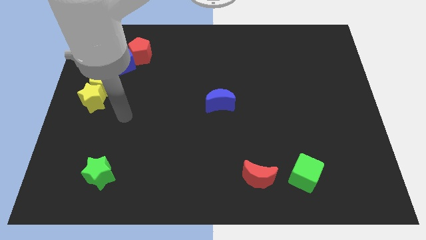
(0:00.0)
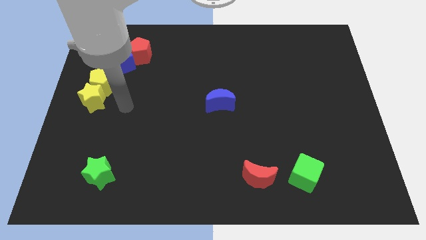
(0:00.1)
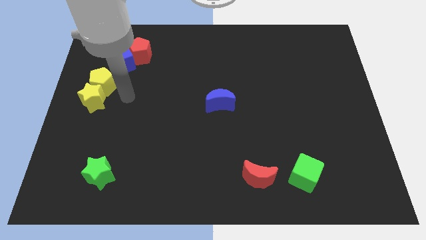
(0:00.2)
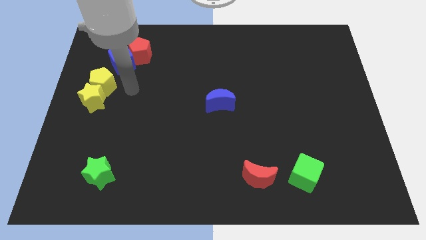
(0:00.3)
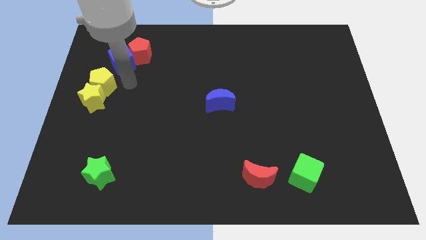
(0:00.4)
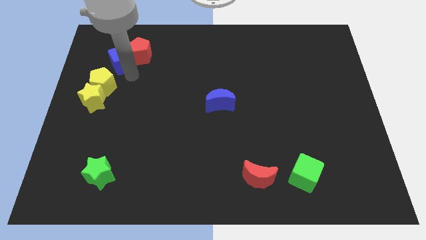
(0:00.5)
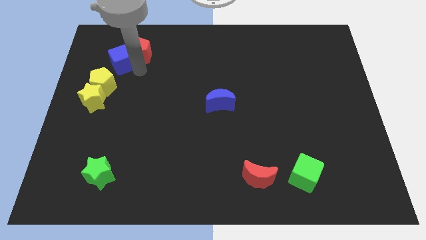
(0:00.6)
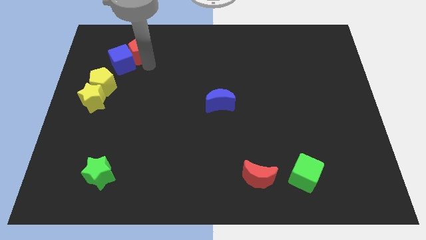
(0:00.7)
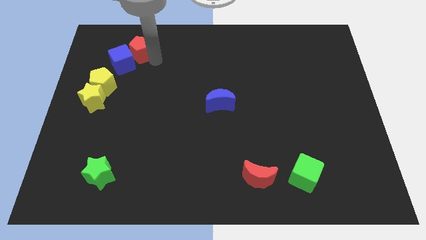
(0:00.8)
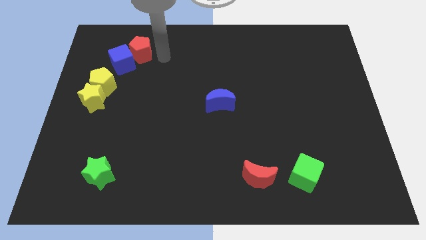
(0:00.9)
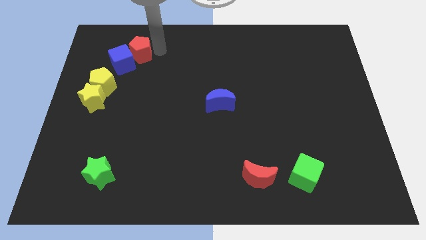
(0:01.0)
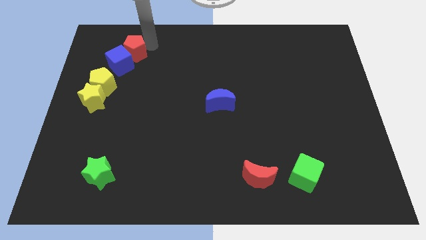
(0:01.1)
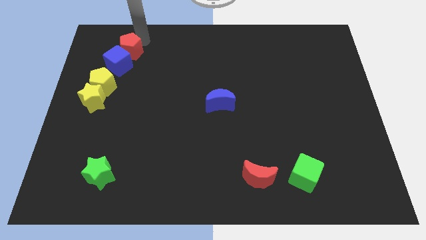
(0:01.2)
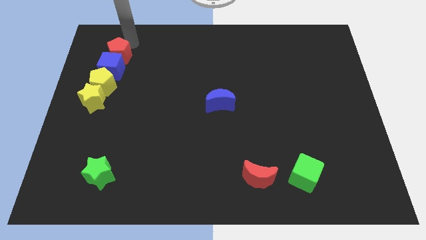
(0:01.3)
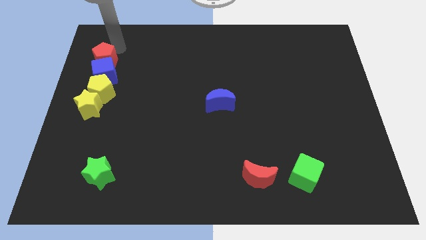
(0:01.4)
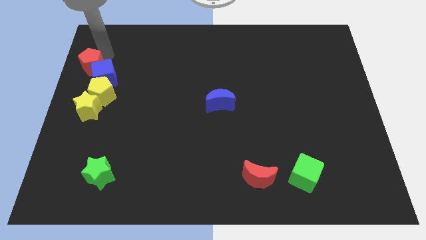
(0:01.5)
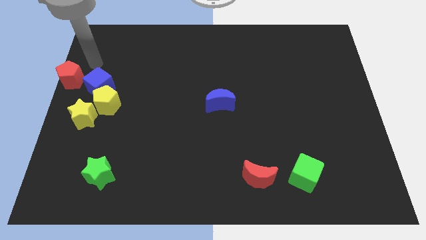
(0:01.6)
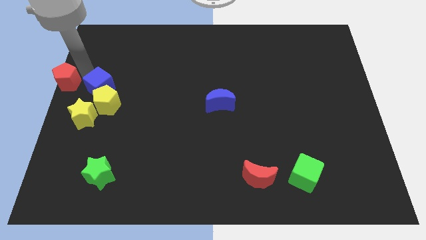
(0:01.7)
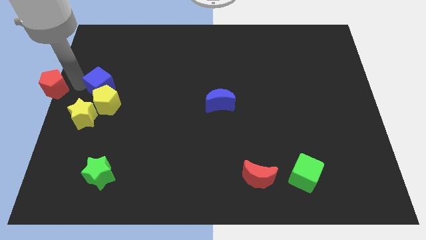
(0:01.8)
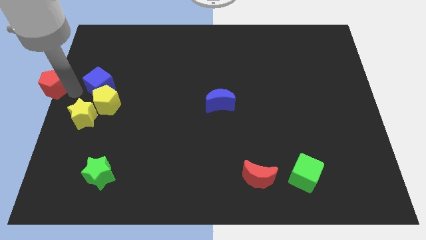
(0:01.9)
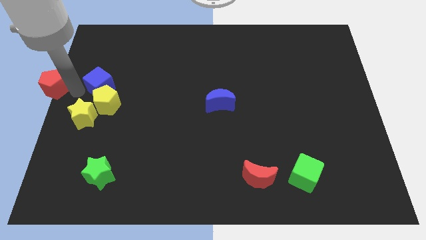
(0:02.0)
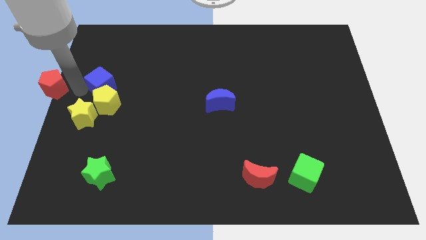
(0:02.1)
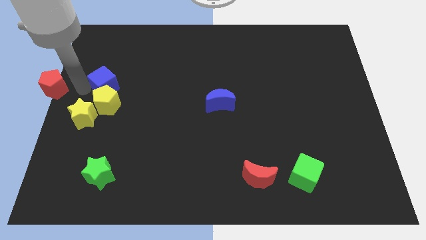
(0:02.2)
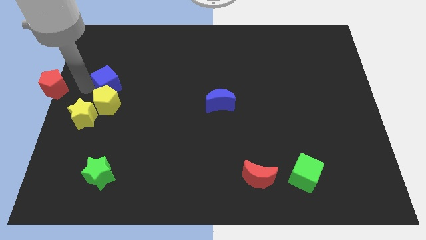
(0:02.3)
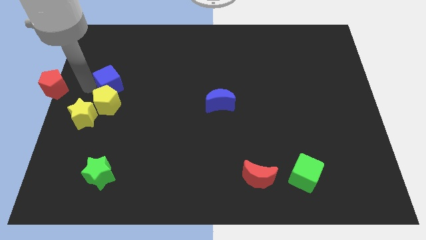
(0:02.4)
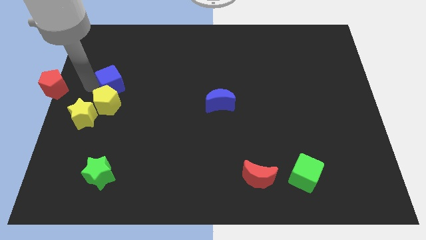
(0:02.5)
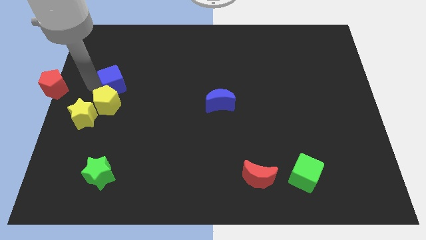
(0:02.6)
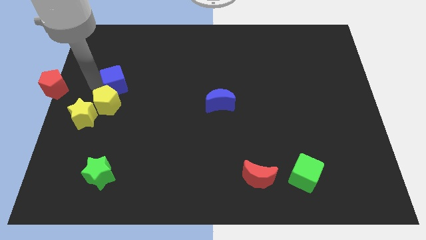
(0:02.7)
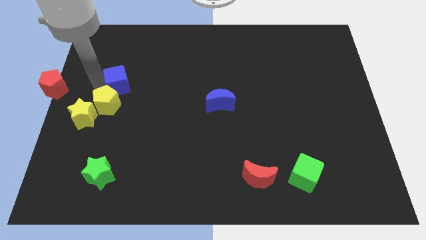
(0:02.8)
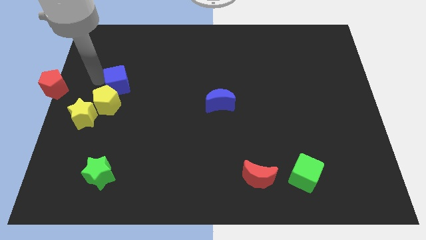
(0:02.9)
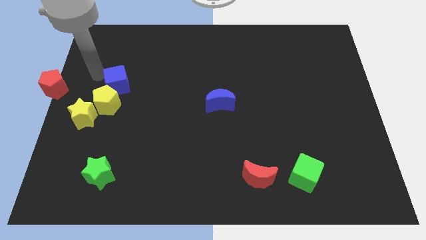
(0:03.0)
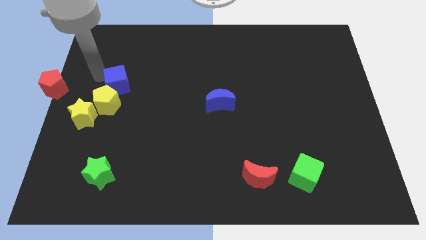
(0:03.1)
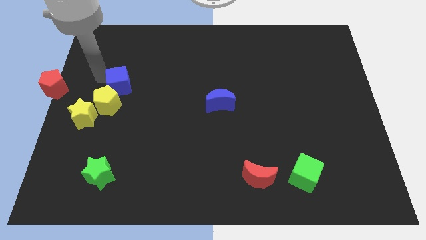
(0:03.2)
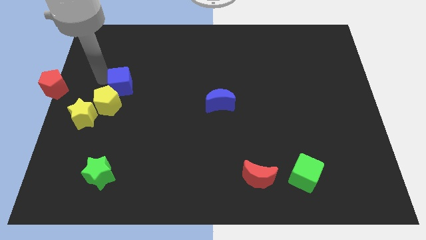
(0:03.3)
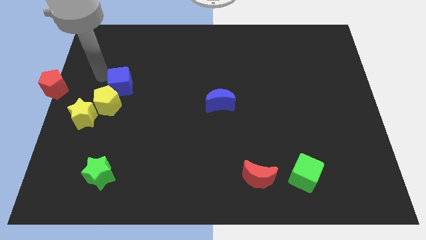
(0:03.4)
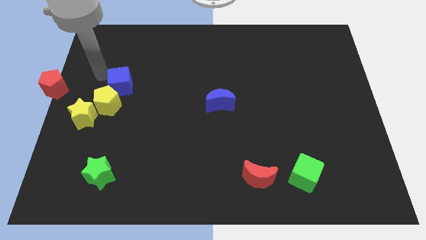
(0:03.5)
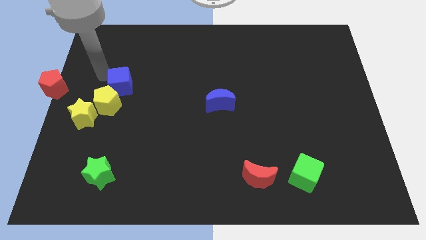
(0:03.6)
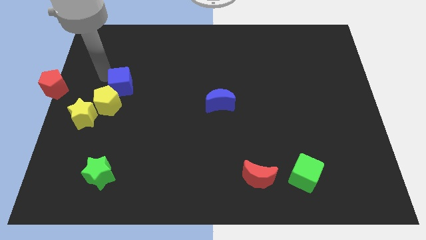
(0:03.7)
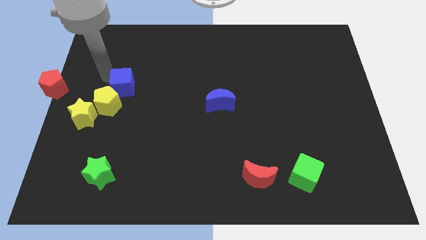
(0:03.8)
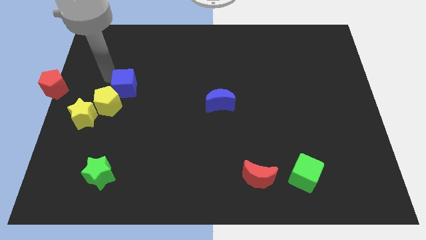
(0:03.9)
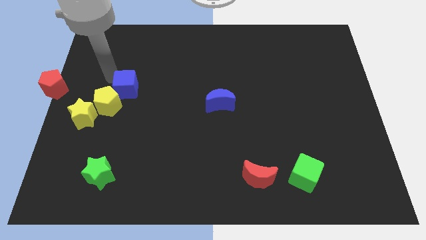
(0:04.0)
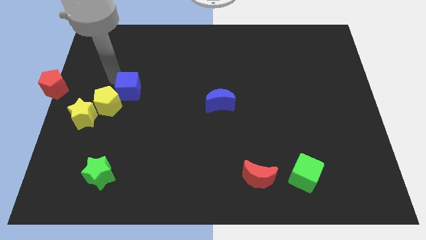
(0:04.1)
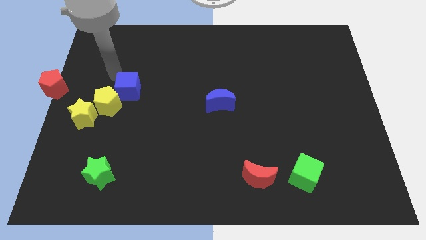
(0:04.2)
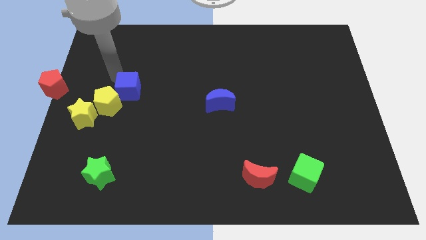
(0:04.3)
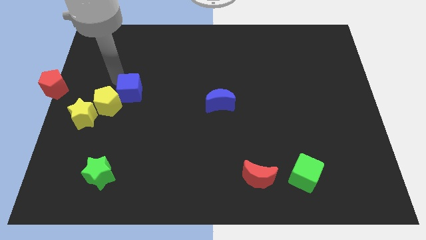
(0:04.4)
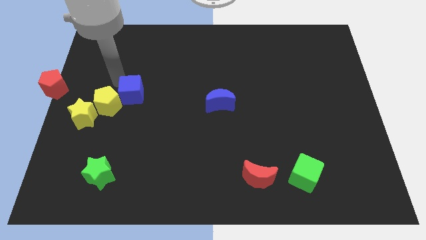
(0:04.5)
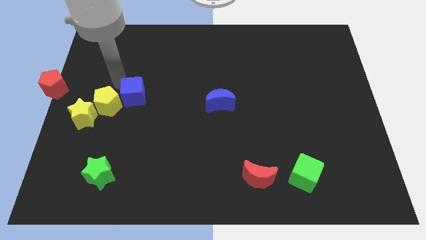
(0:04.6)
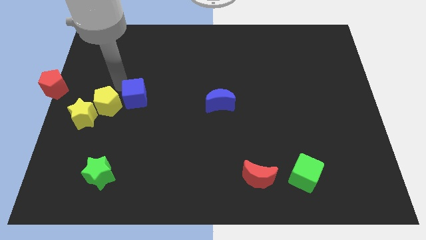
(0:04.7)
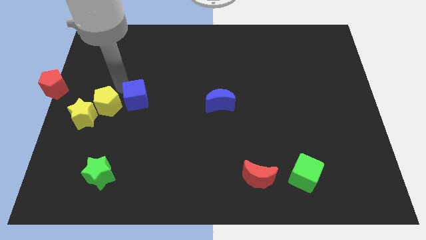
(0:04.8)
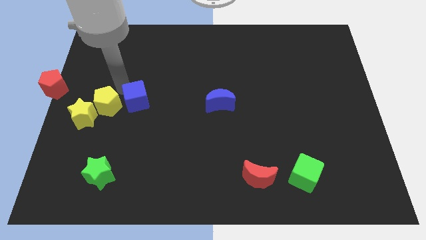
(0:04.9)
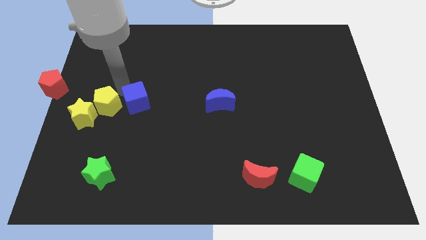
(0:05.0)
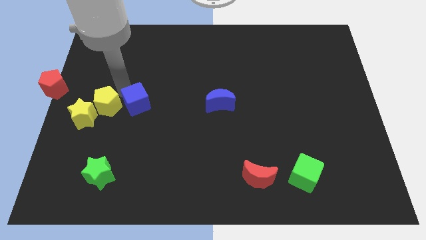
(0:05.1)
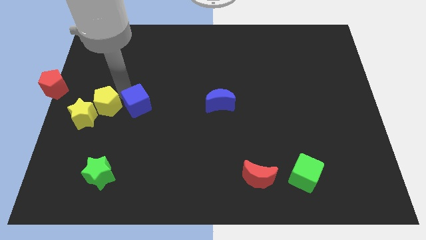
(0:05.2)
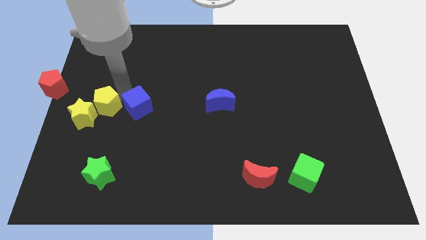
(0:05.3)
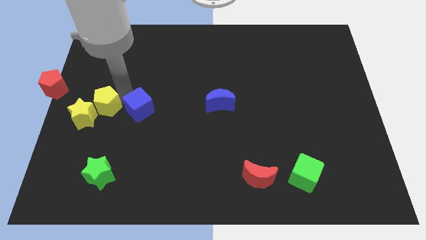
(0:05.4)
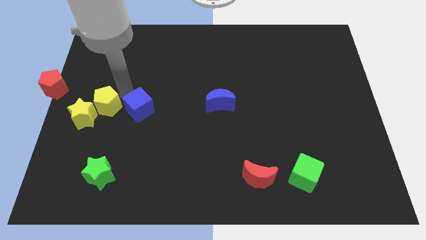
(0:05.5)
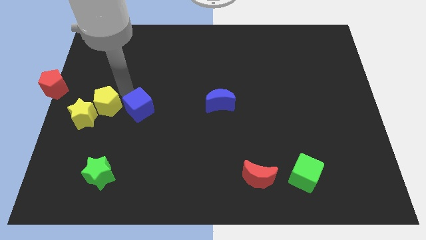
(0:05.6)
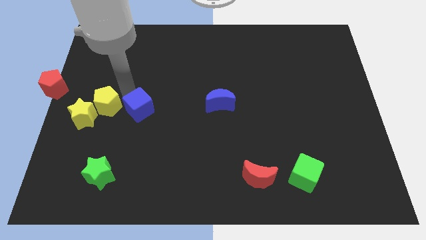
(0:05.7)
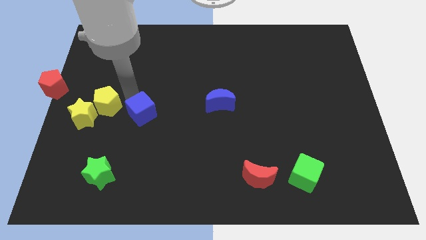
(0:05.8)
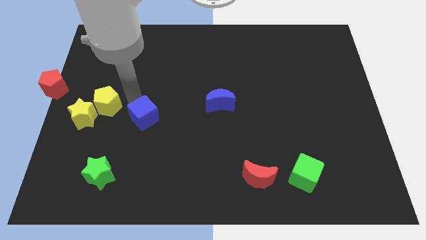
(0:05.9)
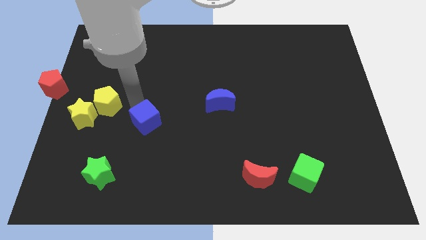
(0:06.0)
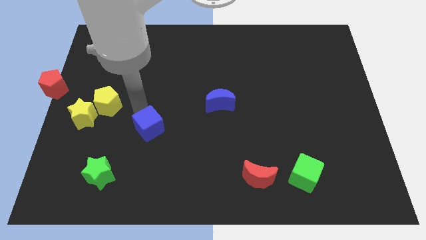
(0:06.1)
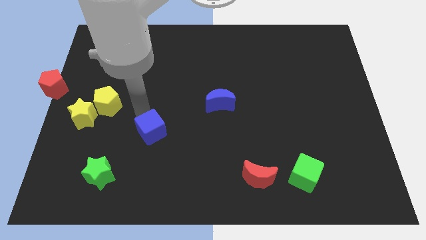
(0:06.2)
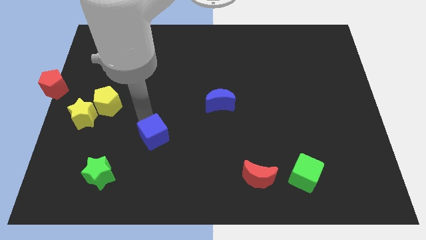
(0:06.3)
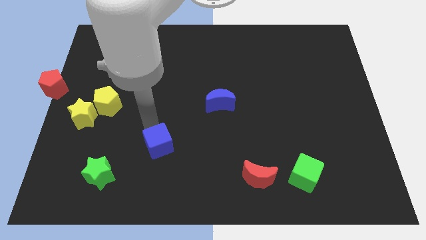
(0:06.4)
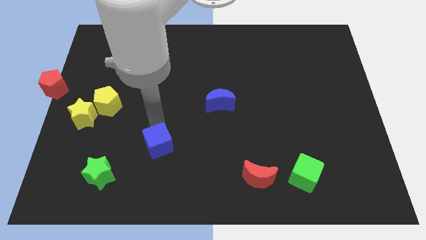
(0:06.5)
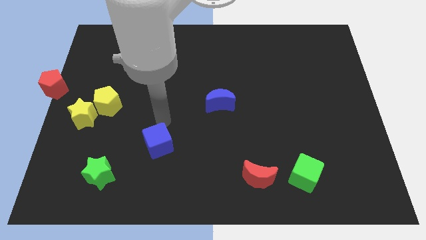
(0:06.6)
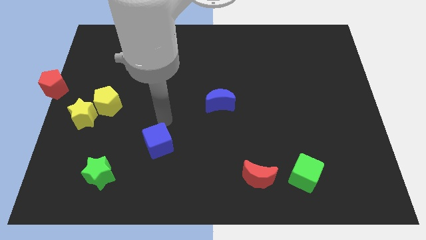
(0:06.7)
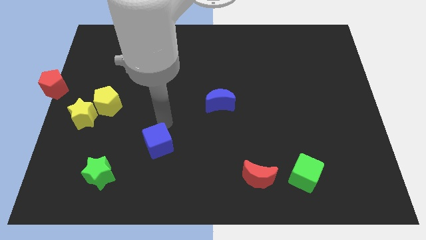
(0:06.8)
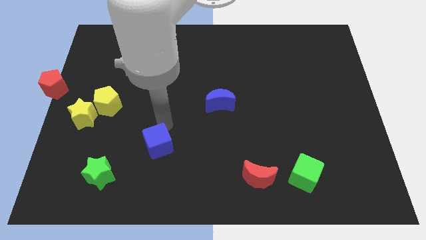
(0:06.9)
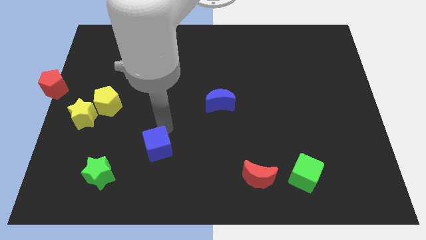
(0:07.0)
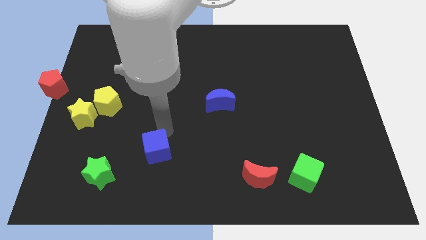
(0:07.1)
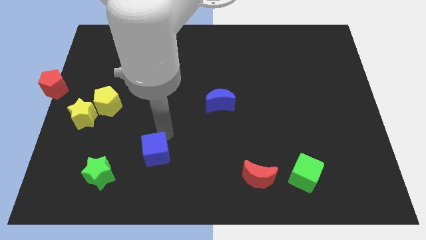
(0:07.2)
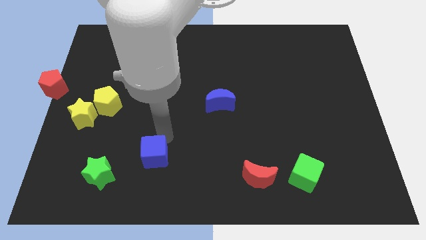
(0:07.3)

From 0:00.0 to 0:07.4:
push the blue cube right of the green star

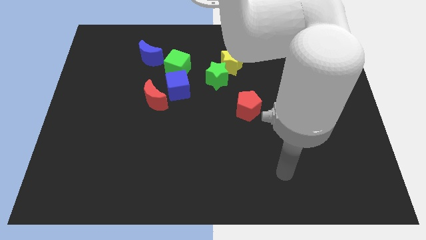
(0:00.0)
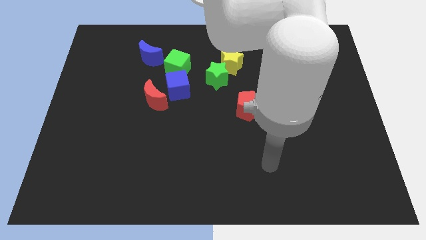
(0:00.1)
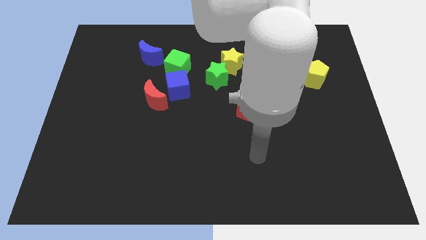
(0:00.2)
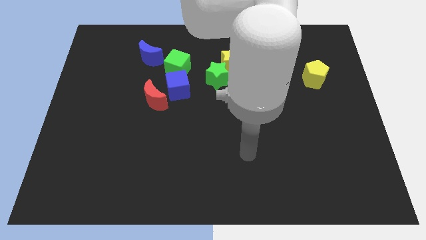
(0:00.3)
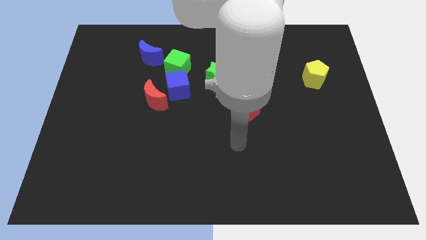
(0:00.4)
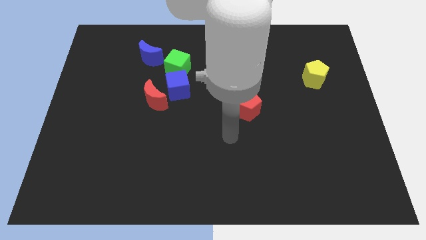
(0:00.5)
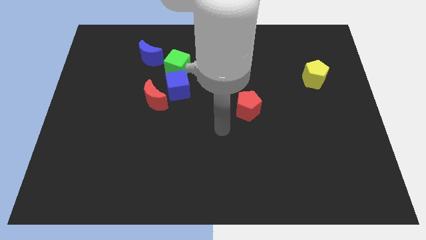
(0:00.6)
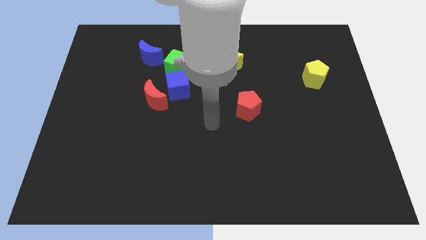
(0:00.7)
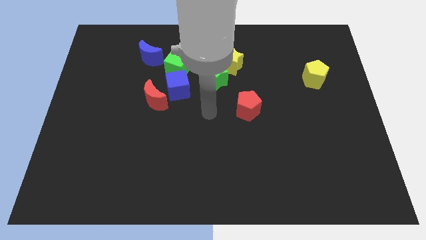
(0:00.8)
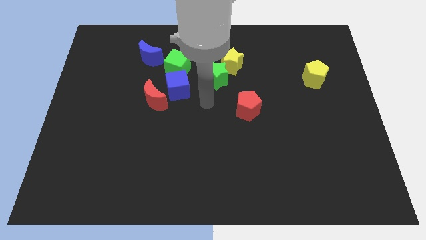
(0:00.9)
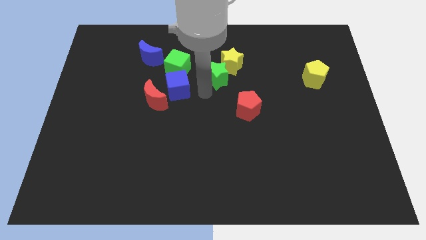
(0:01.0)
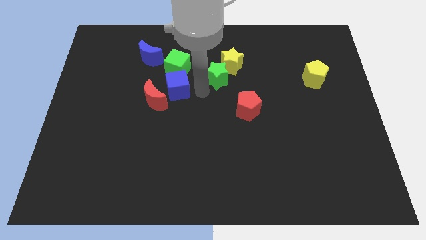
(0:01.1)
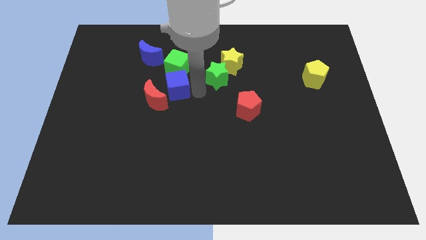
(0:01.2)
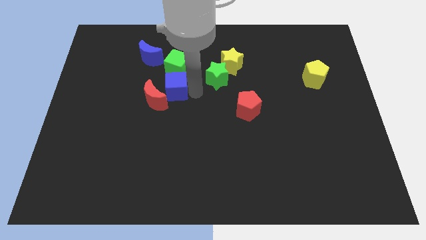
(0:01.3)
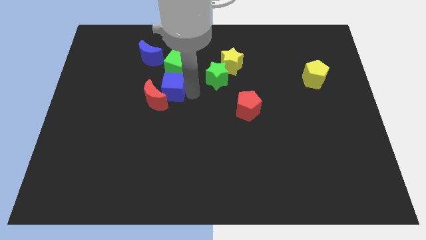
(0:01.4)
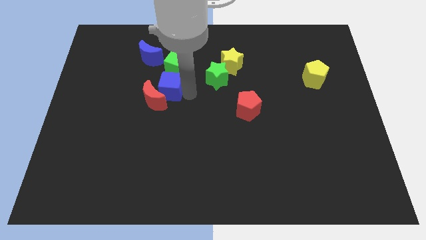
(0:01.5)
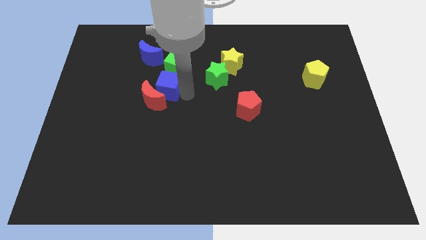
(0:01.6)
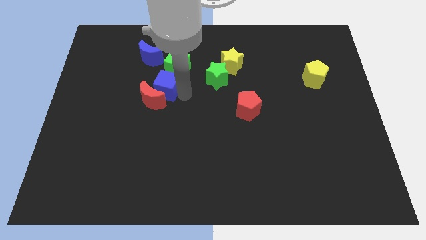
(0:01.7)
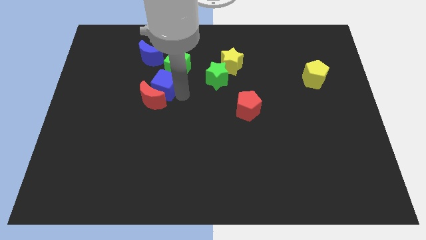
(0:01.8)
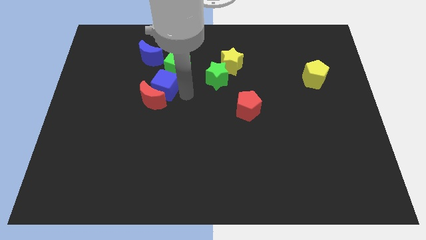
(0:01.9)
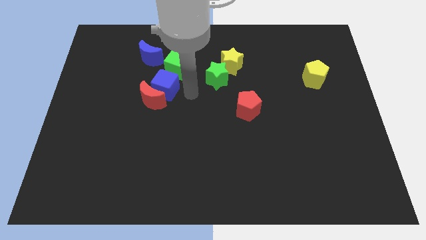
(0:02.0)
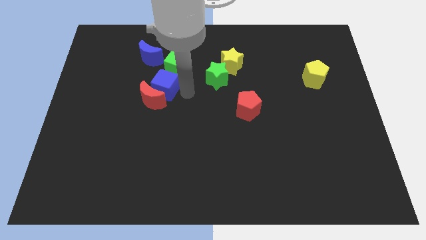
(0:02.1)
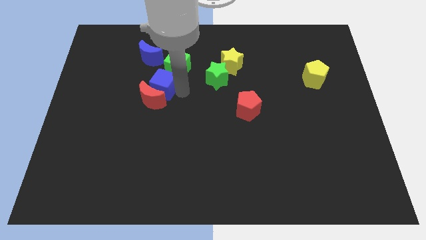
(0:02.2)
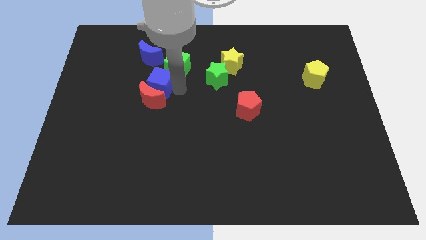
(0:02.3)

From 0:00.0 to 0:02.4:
move the blue cube to the top left of the red moon
